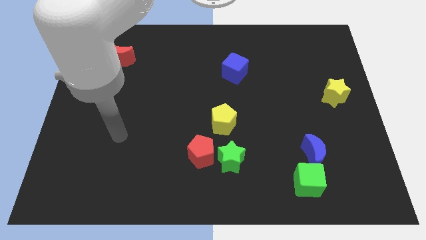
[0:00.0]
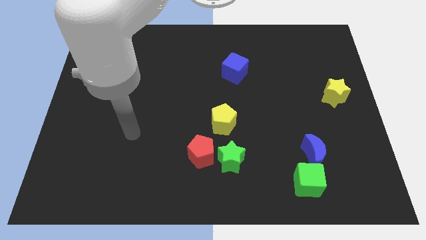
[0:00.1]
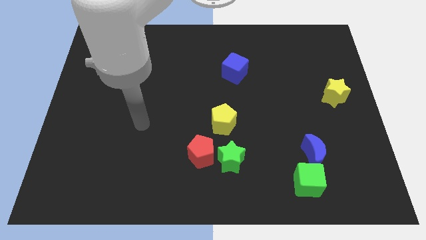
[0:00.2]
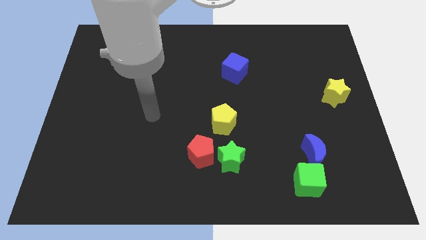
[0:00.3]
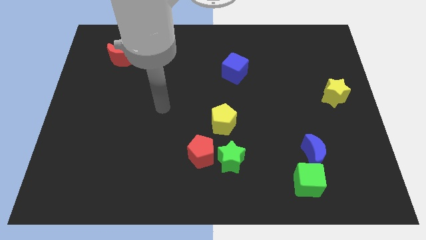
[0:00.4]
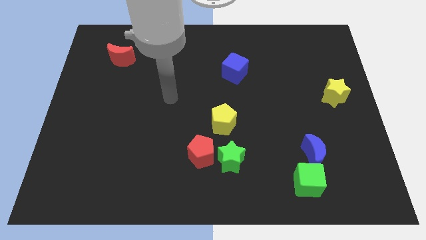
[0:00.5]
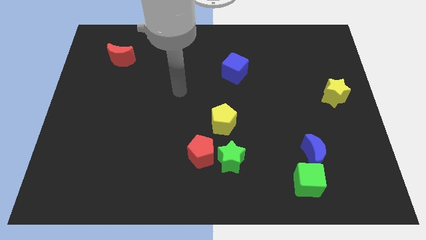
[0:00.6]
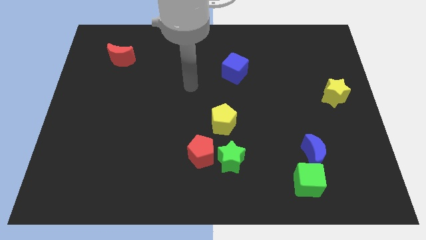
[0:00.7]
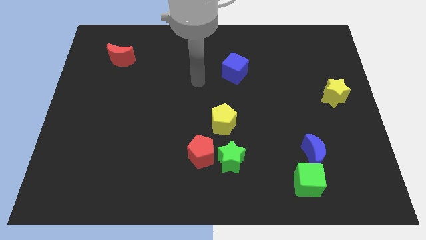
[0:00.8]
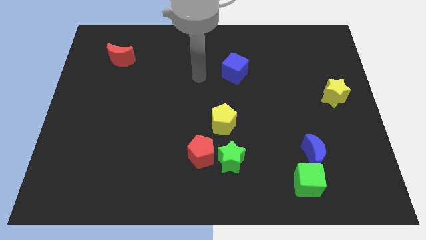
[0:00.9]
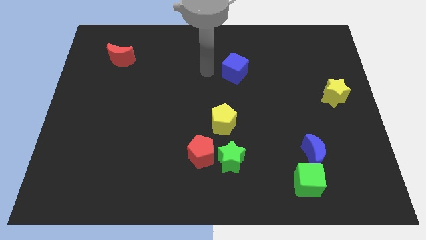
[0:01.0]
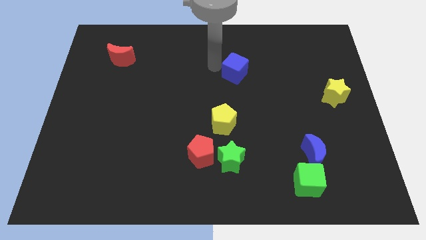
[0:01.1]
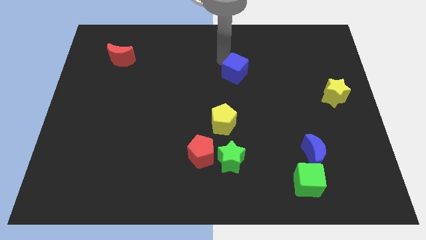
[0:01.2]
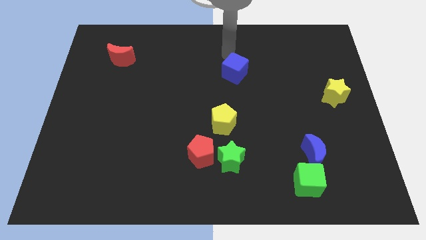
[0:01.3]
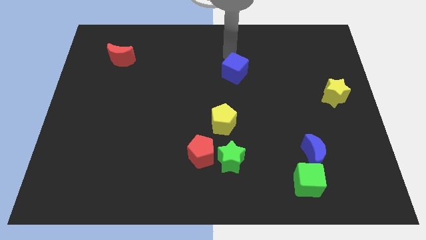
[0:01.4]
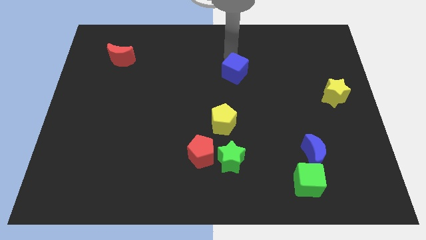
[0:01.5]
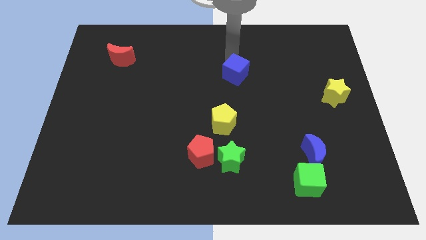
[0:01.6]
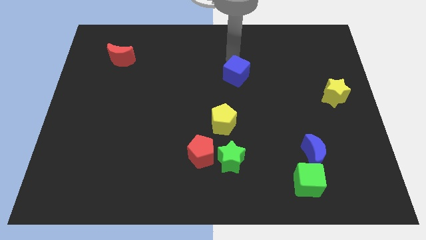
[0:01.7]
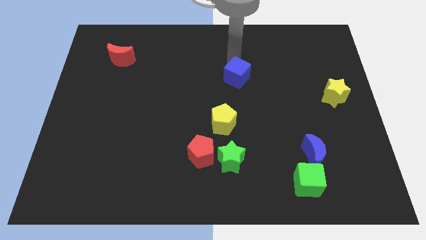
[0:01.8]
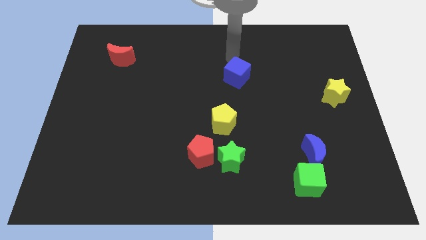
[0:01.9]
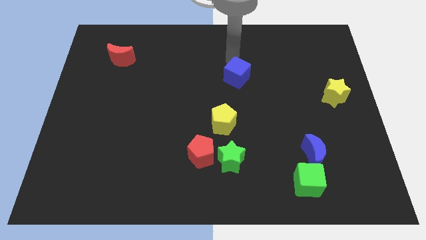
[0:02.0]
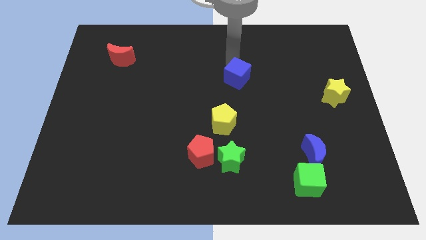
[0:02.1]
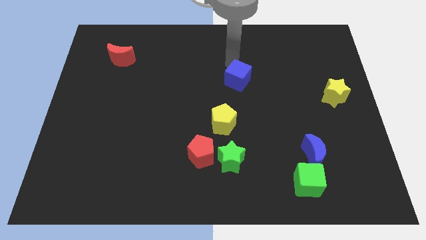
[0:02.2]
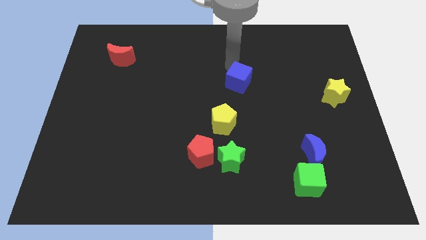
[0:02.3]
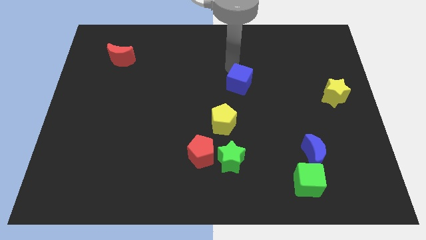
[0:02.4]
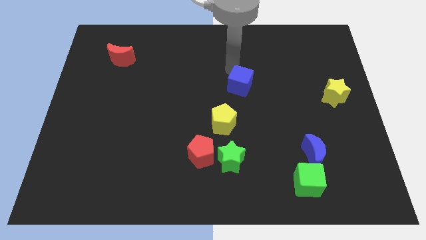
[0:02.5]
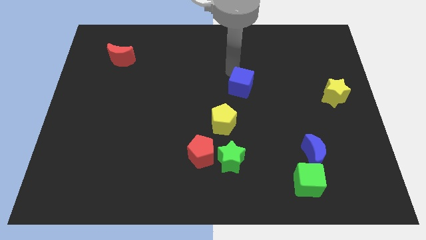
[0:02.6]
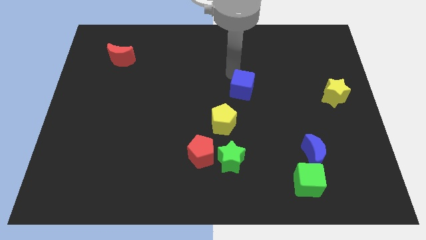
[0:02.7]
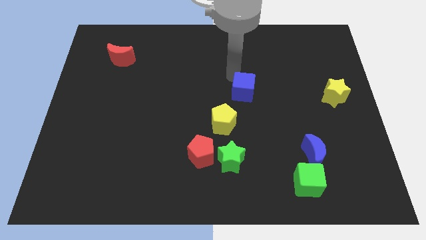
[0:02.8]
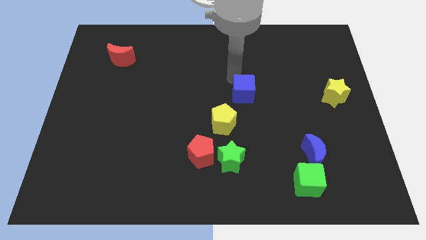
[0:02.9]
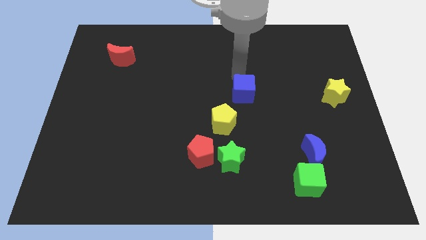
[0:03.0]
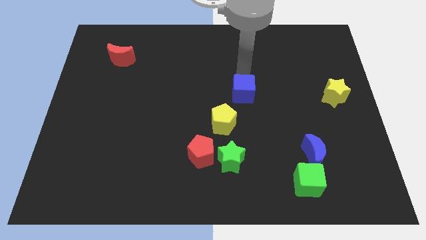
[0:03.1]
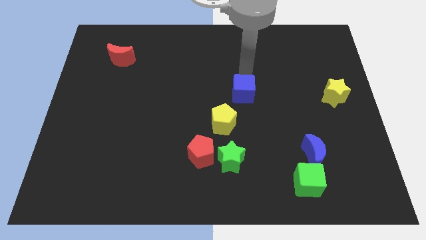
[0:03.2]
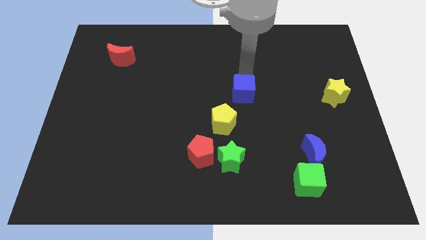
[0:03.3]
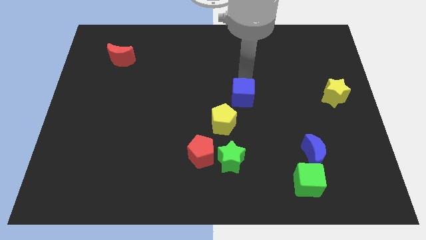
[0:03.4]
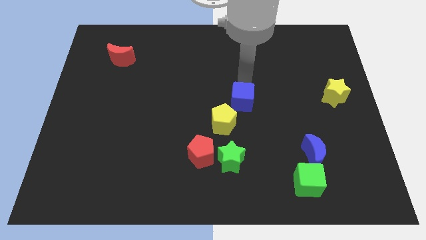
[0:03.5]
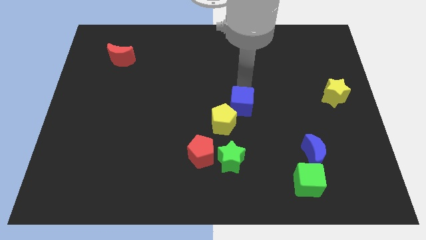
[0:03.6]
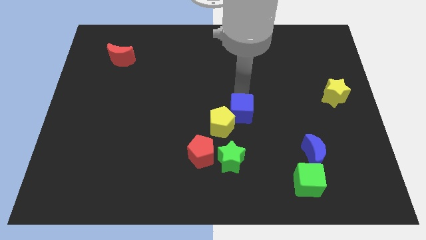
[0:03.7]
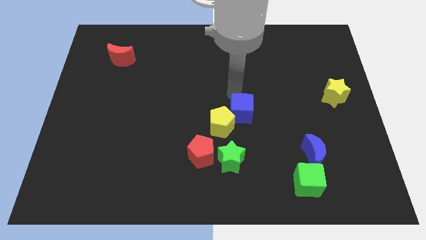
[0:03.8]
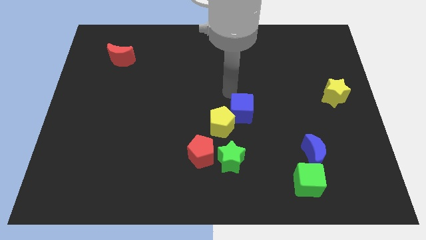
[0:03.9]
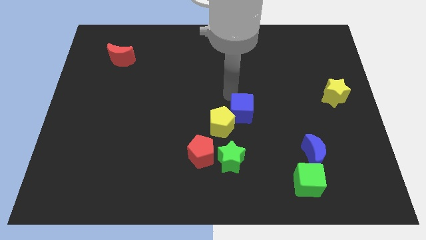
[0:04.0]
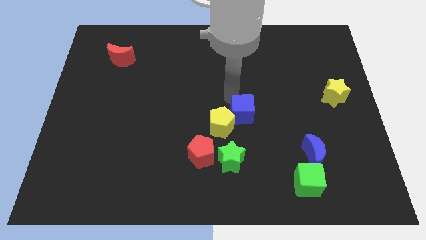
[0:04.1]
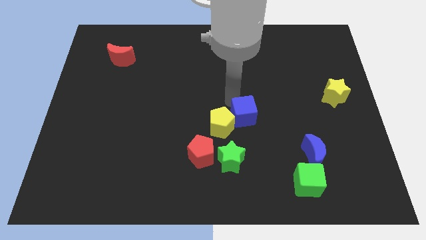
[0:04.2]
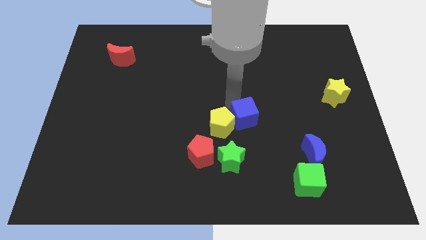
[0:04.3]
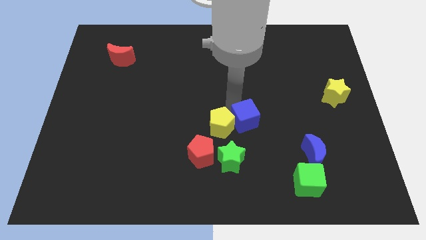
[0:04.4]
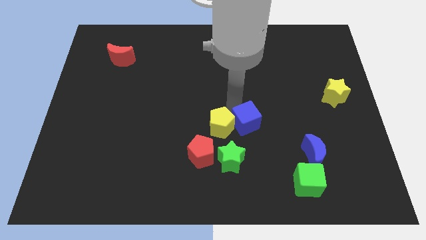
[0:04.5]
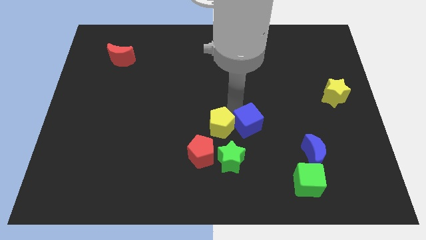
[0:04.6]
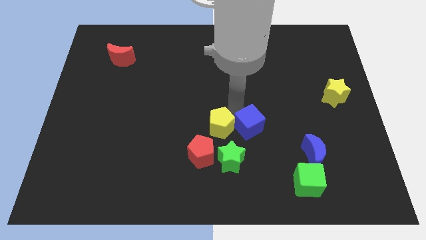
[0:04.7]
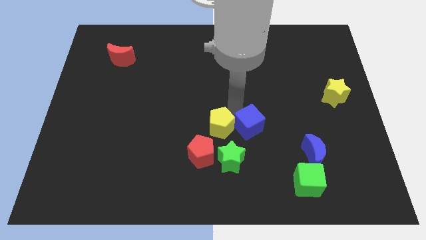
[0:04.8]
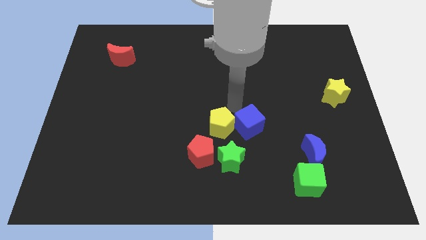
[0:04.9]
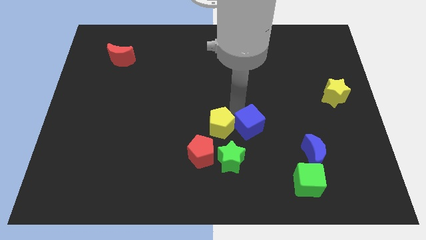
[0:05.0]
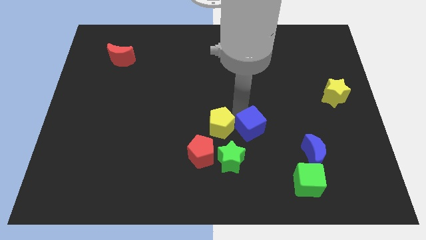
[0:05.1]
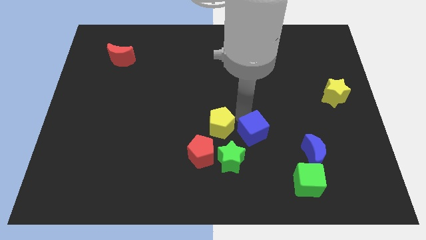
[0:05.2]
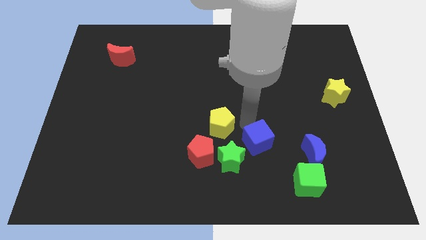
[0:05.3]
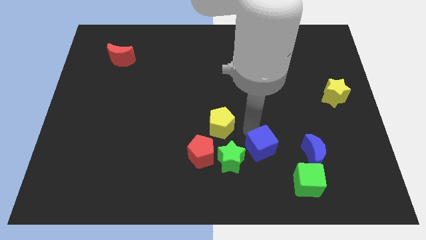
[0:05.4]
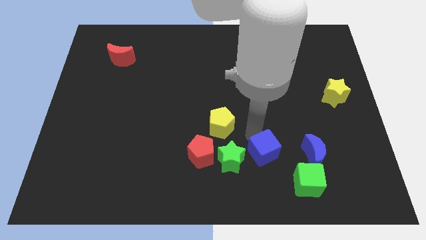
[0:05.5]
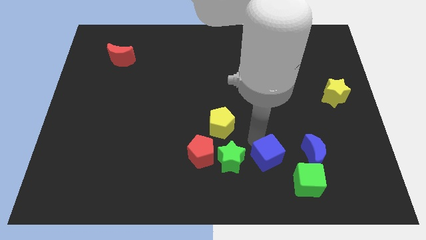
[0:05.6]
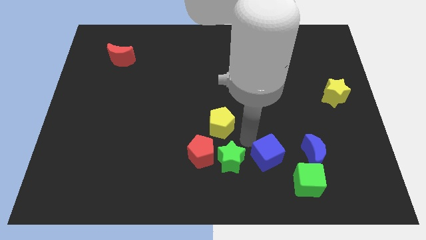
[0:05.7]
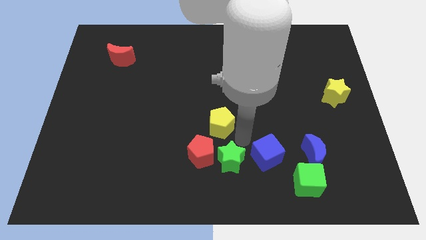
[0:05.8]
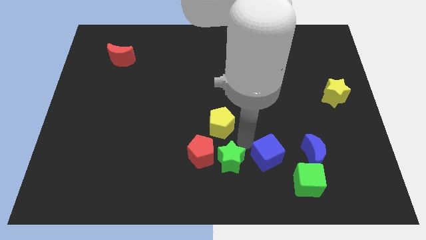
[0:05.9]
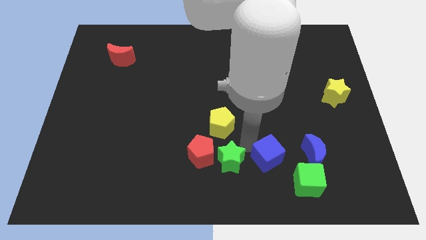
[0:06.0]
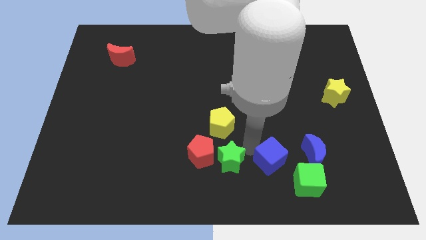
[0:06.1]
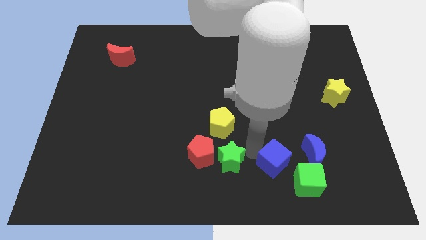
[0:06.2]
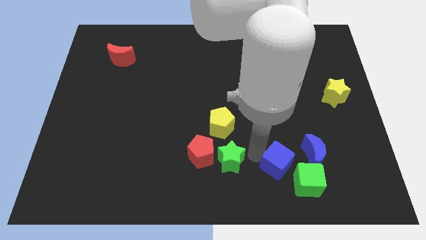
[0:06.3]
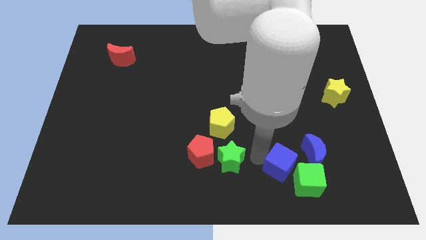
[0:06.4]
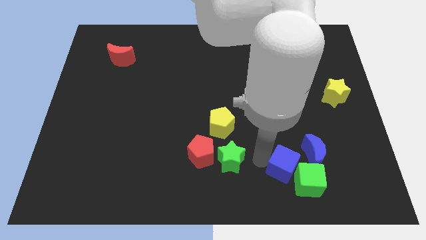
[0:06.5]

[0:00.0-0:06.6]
put the blue cube towards the green cube

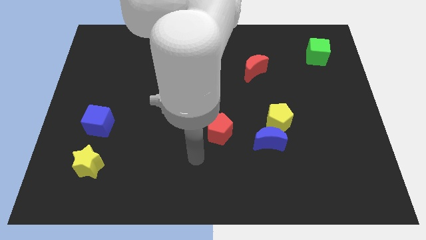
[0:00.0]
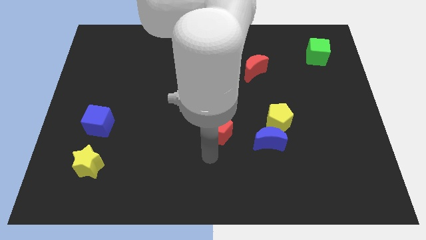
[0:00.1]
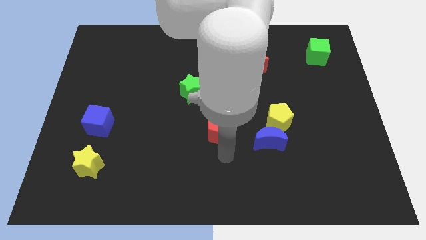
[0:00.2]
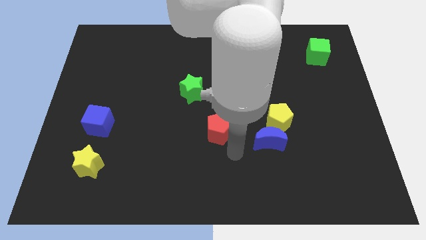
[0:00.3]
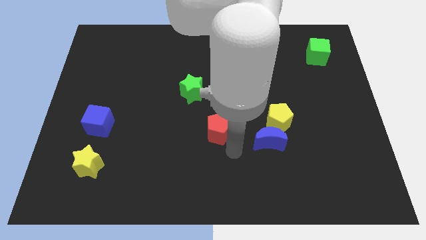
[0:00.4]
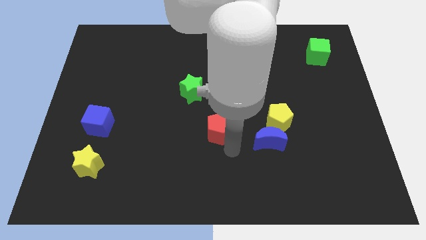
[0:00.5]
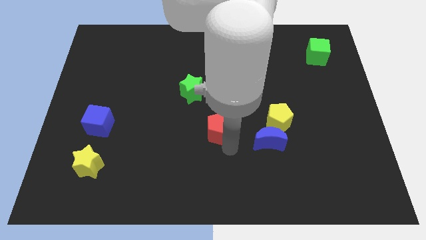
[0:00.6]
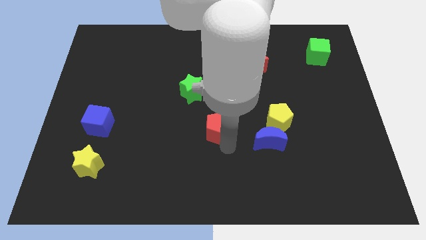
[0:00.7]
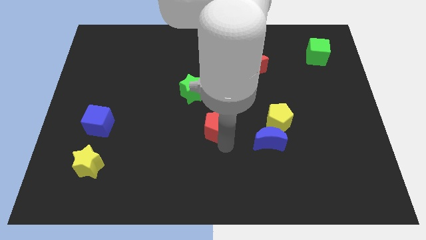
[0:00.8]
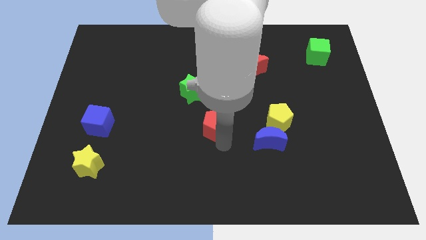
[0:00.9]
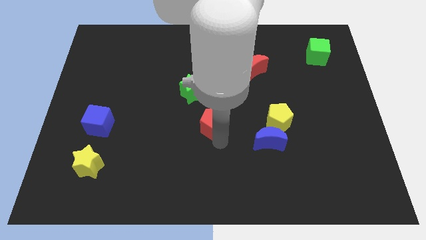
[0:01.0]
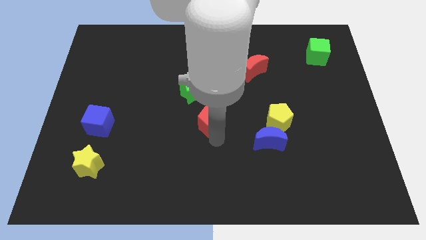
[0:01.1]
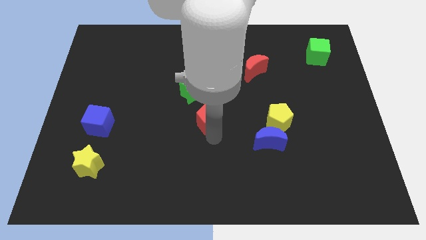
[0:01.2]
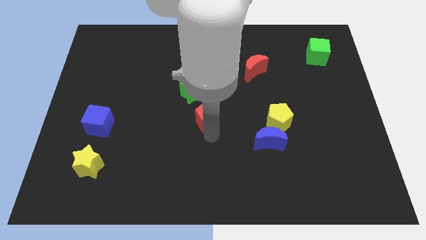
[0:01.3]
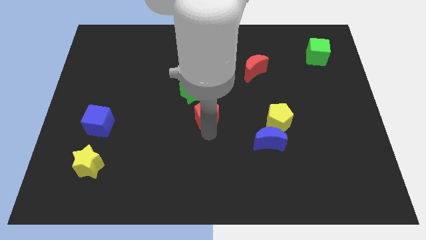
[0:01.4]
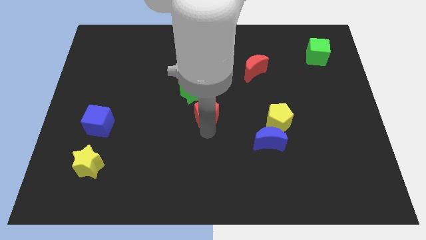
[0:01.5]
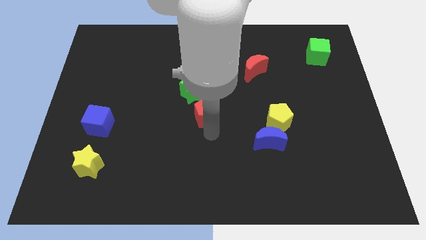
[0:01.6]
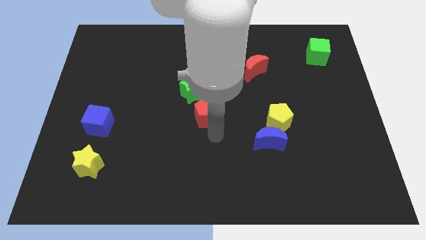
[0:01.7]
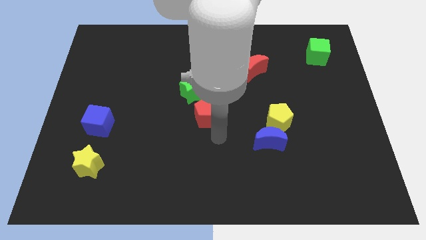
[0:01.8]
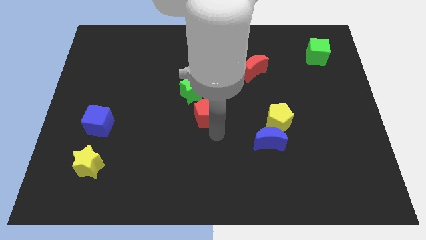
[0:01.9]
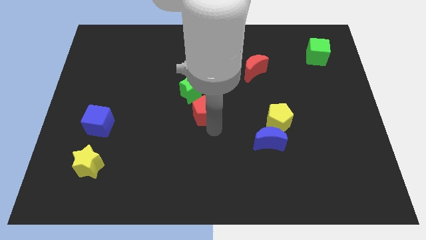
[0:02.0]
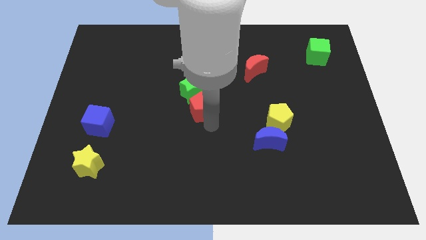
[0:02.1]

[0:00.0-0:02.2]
put the red pentagon towards the green star
